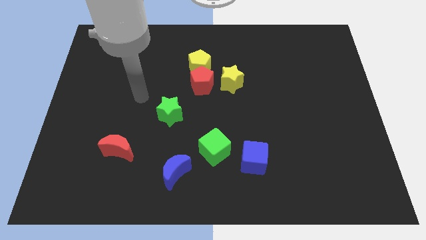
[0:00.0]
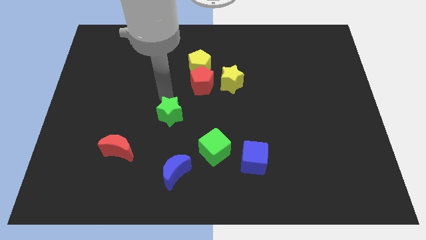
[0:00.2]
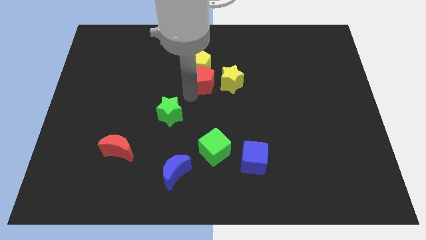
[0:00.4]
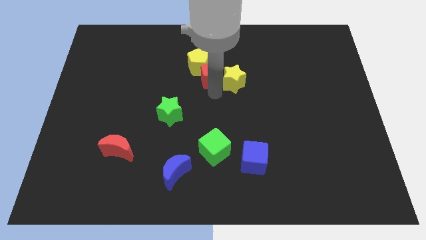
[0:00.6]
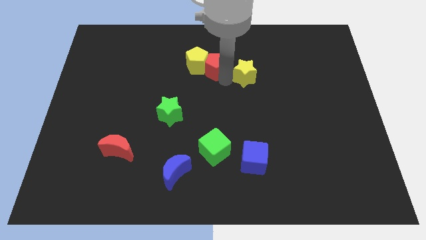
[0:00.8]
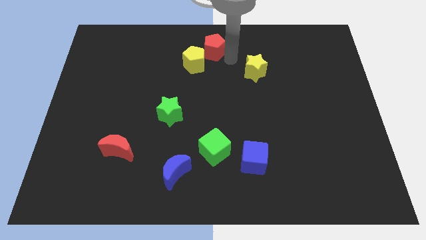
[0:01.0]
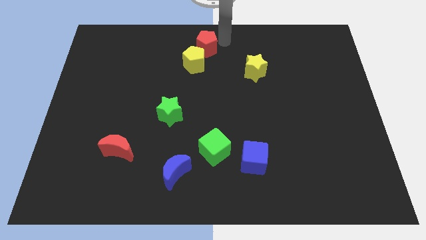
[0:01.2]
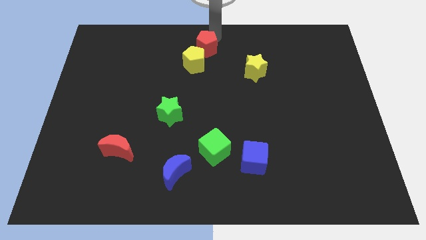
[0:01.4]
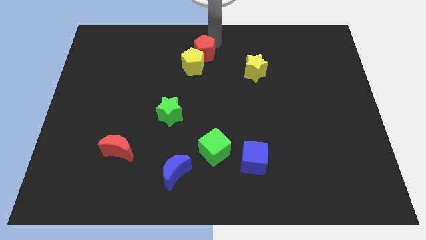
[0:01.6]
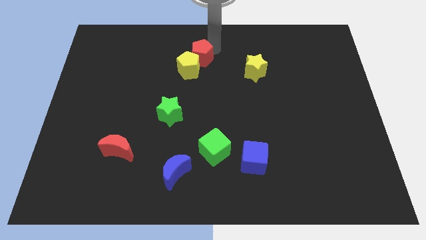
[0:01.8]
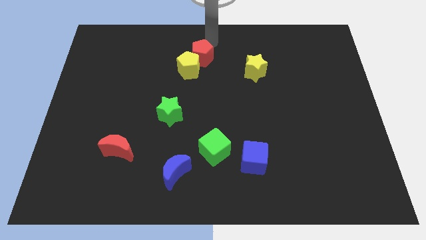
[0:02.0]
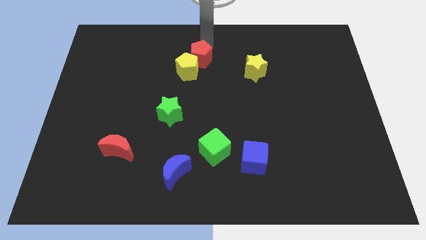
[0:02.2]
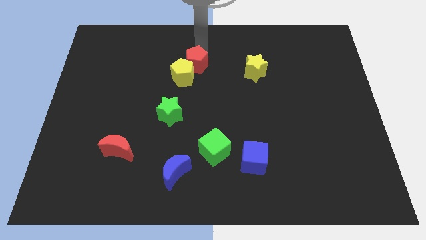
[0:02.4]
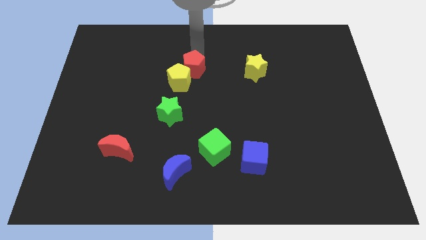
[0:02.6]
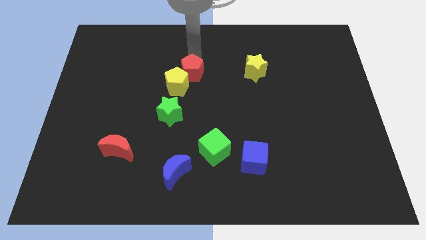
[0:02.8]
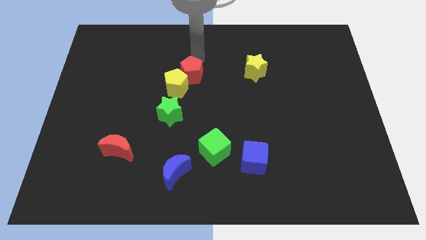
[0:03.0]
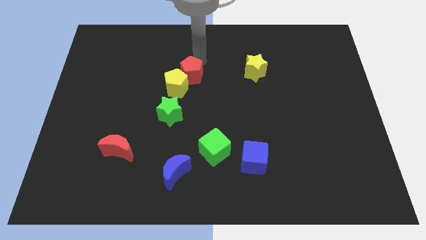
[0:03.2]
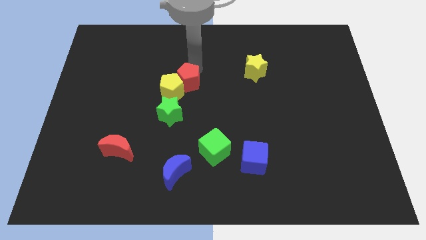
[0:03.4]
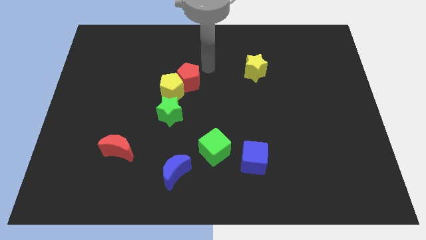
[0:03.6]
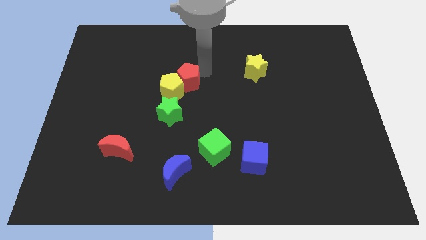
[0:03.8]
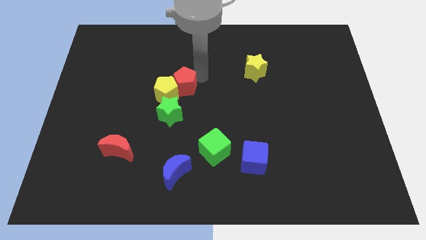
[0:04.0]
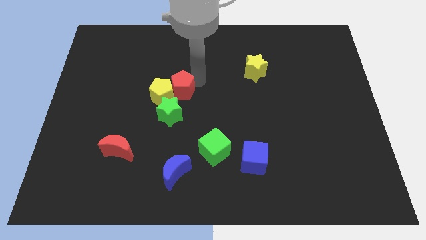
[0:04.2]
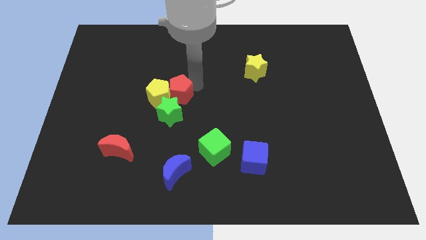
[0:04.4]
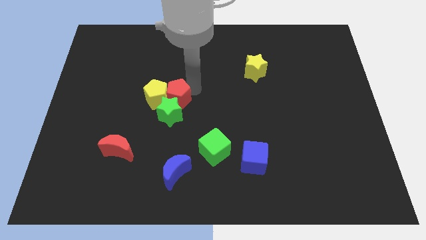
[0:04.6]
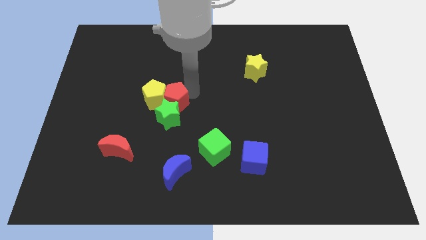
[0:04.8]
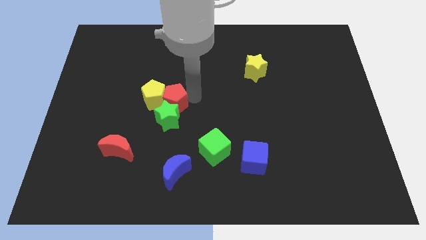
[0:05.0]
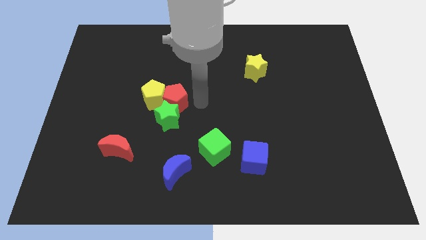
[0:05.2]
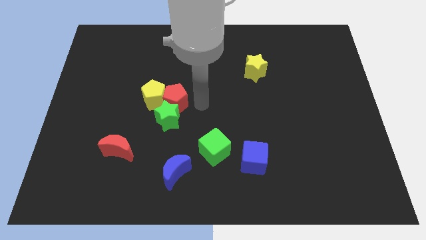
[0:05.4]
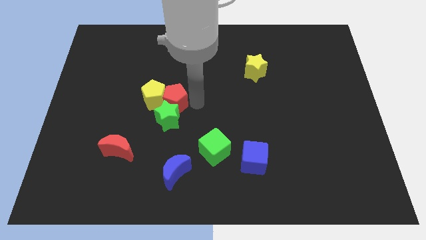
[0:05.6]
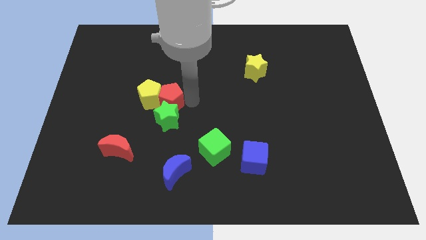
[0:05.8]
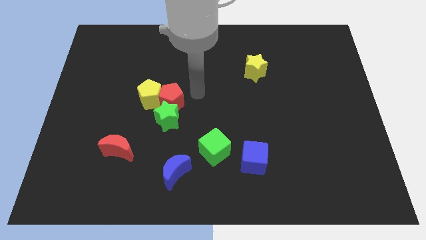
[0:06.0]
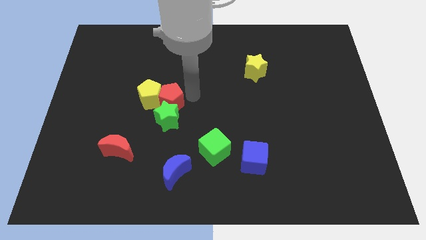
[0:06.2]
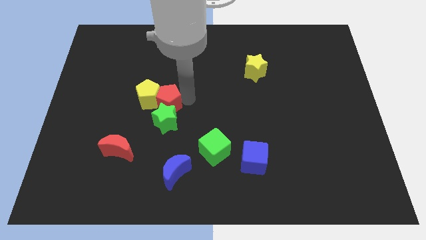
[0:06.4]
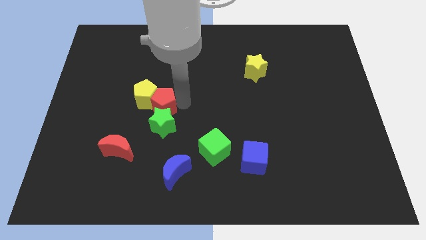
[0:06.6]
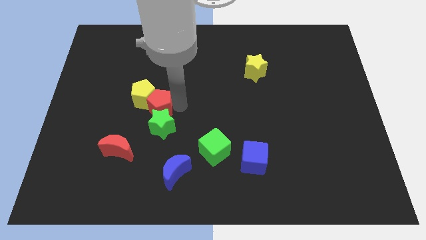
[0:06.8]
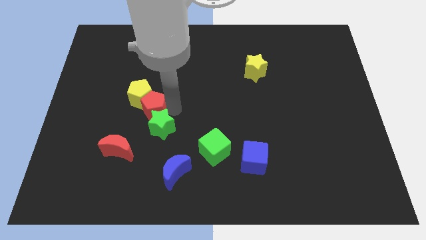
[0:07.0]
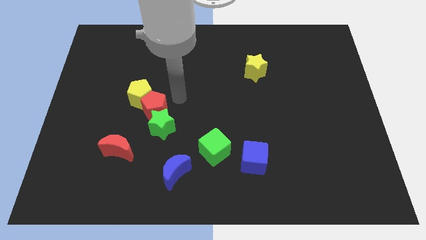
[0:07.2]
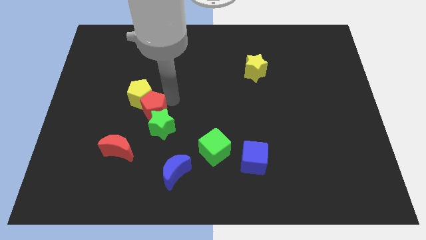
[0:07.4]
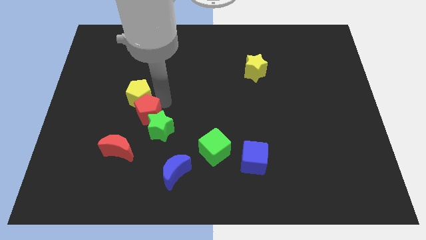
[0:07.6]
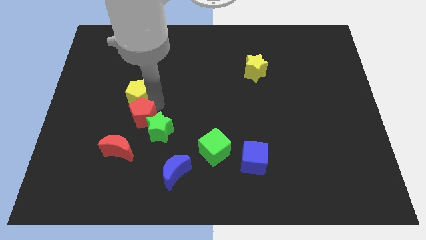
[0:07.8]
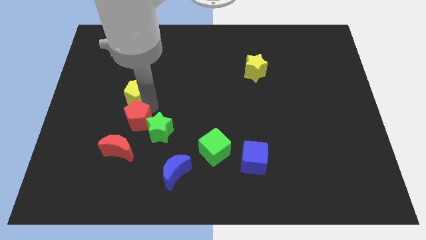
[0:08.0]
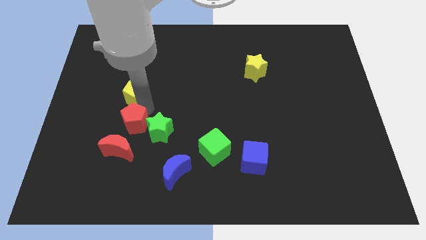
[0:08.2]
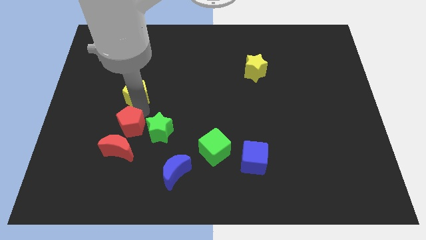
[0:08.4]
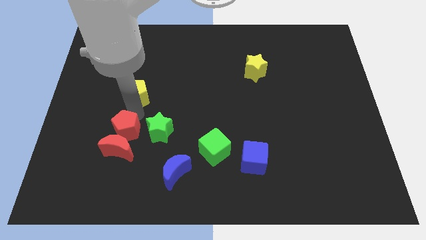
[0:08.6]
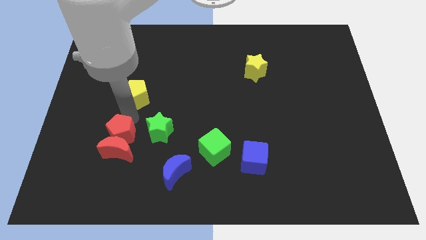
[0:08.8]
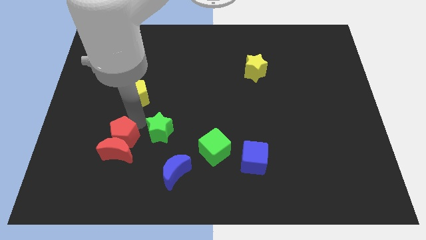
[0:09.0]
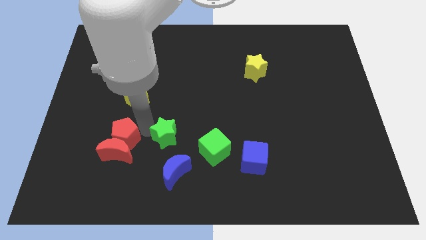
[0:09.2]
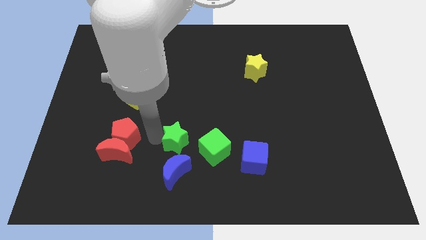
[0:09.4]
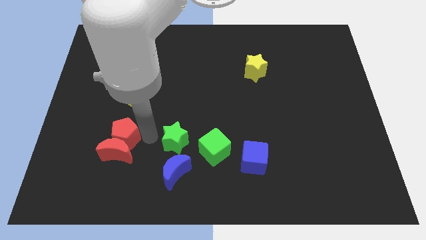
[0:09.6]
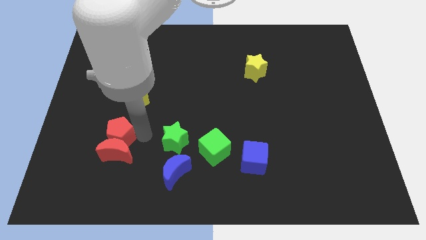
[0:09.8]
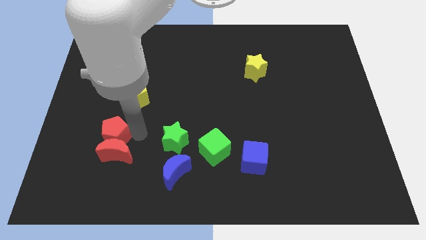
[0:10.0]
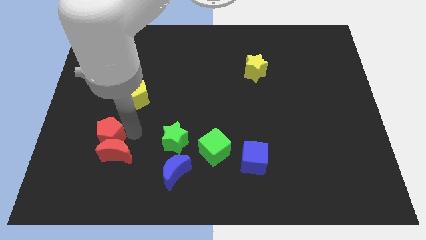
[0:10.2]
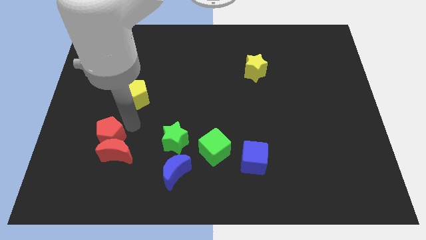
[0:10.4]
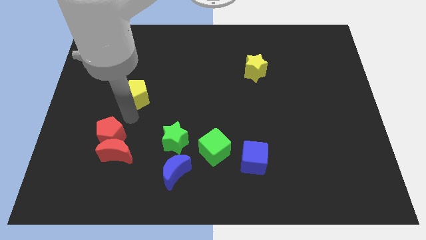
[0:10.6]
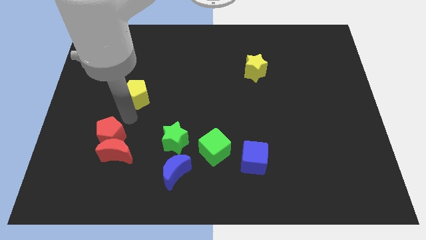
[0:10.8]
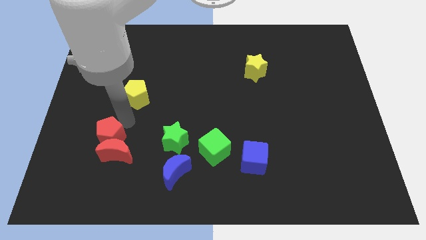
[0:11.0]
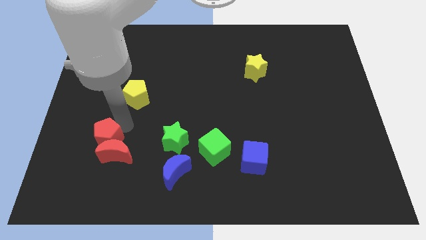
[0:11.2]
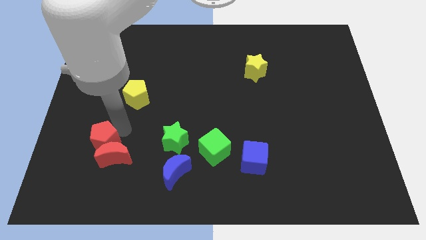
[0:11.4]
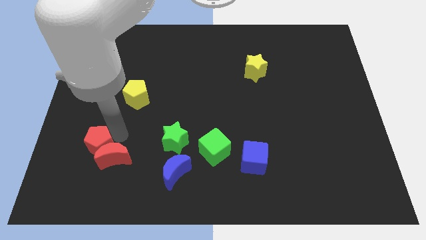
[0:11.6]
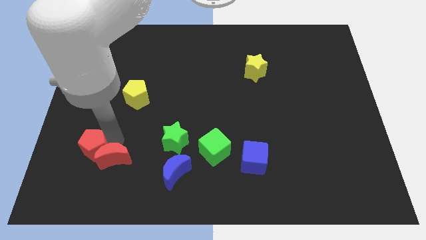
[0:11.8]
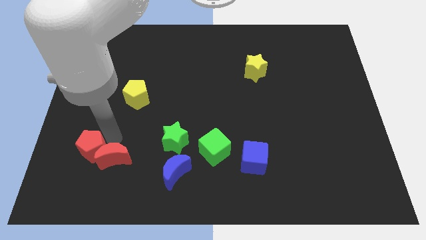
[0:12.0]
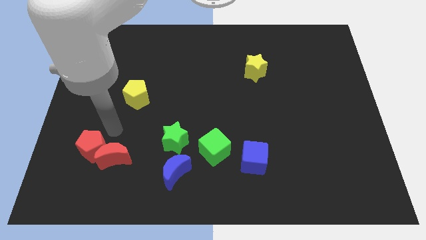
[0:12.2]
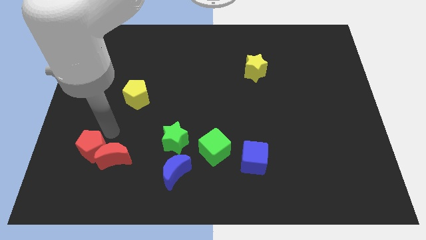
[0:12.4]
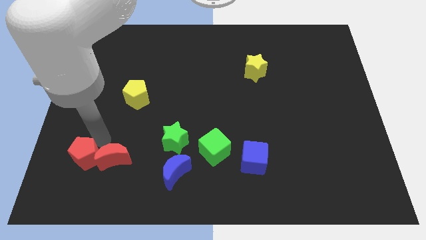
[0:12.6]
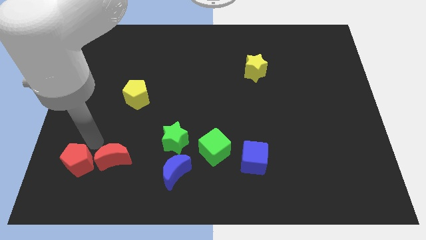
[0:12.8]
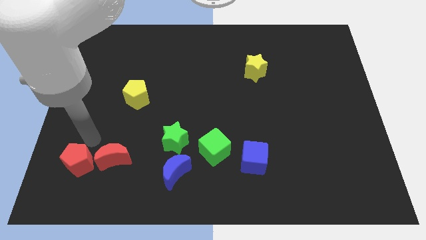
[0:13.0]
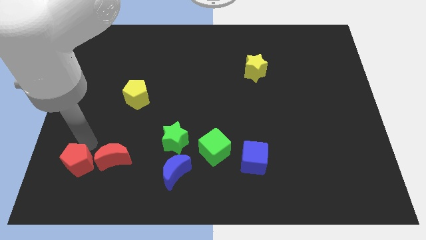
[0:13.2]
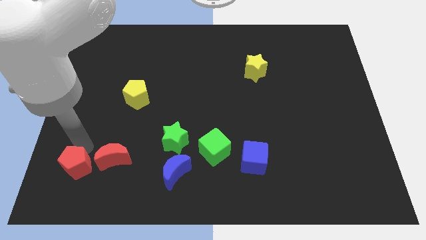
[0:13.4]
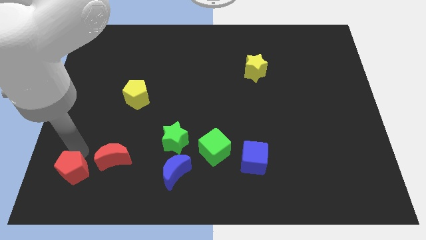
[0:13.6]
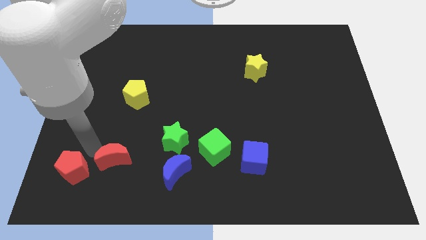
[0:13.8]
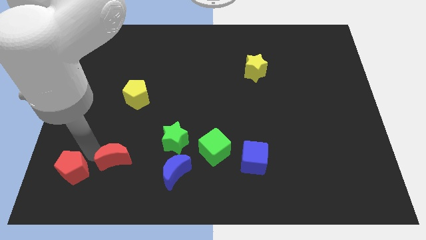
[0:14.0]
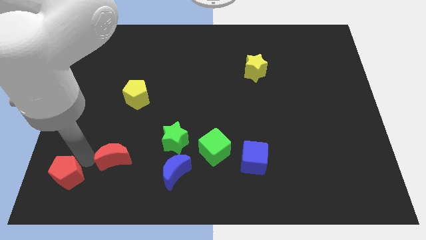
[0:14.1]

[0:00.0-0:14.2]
move the red pentagon to the bottom left
